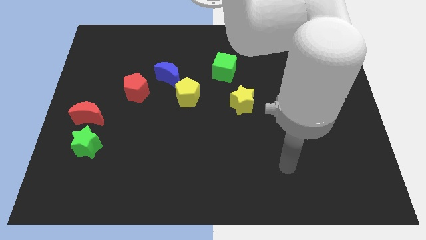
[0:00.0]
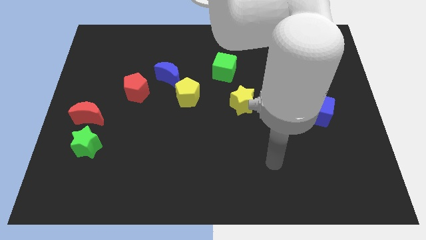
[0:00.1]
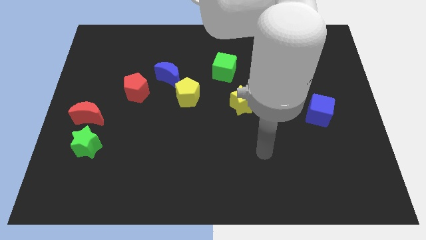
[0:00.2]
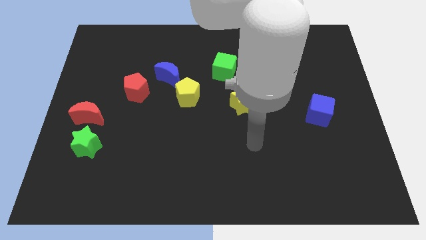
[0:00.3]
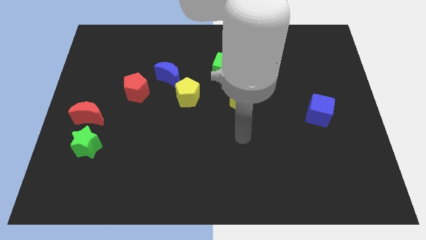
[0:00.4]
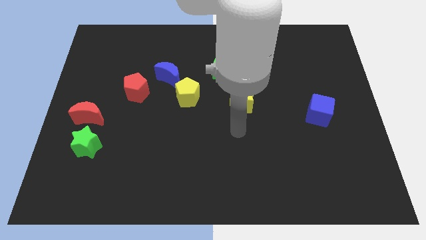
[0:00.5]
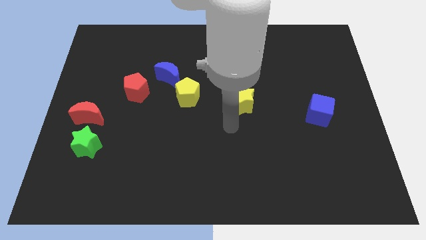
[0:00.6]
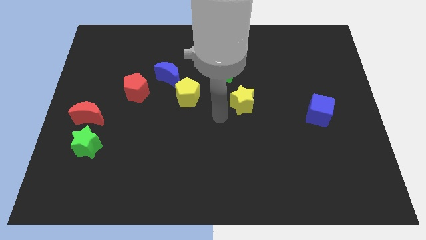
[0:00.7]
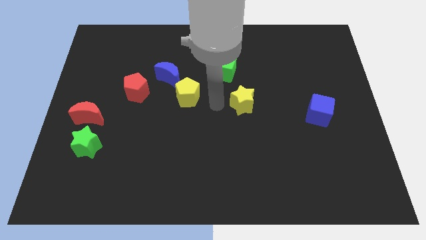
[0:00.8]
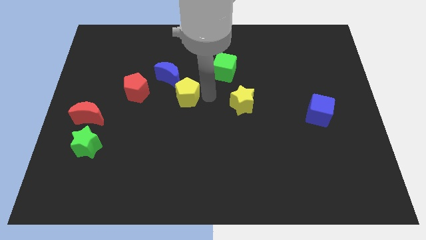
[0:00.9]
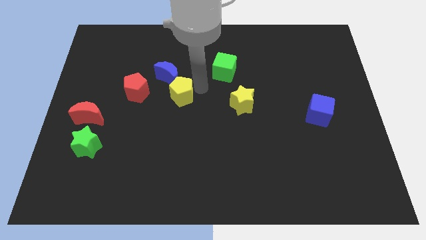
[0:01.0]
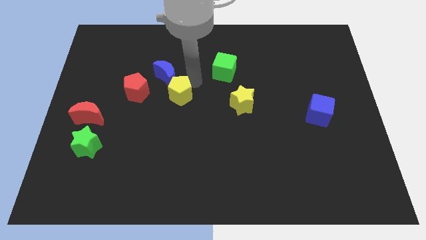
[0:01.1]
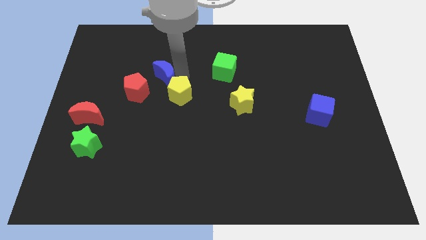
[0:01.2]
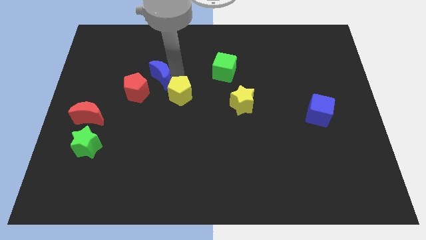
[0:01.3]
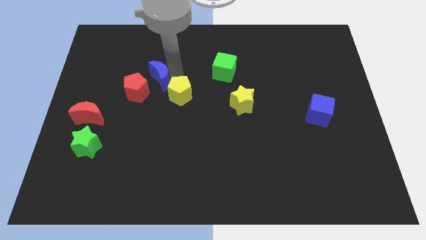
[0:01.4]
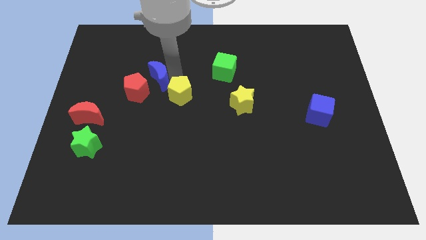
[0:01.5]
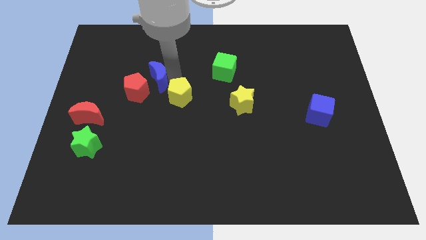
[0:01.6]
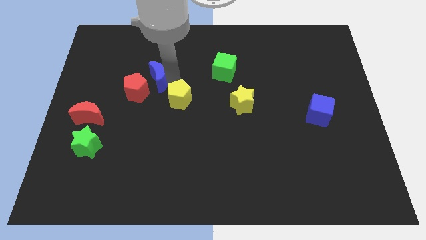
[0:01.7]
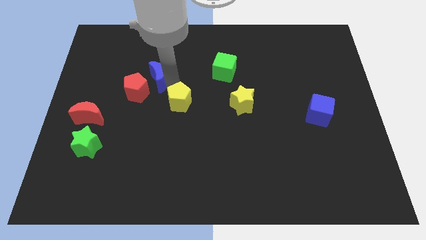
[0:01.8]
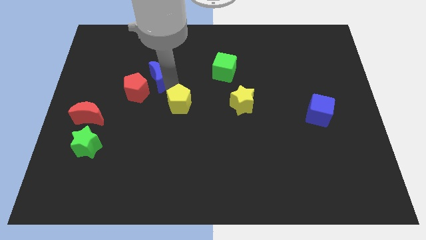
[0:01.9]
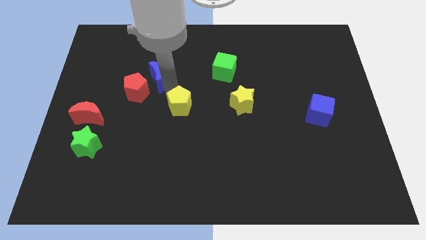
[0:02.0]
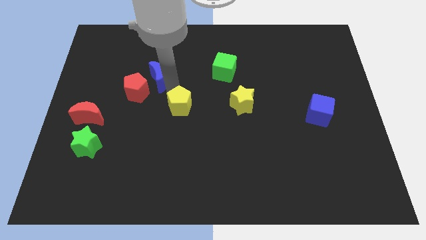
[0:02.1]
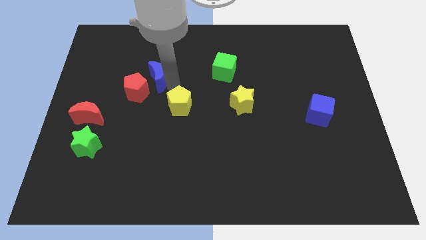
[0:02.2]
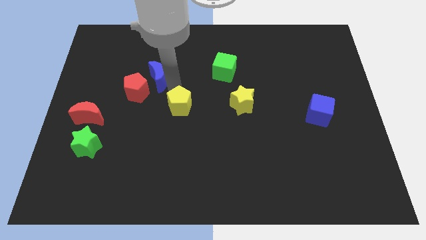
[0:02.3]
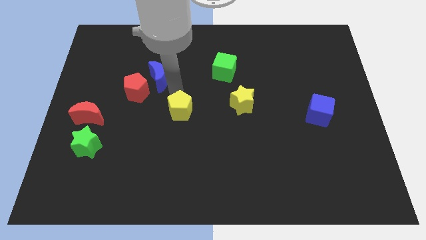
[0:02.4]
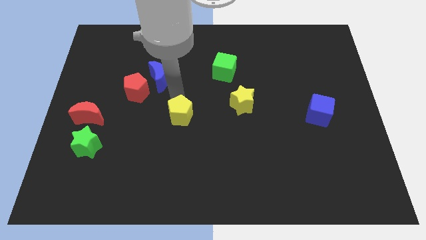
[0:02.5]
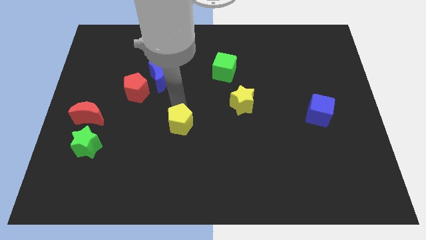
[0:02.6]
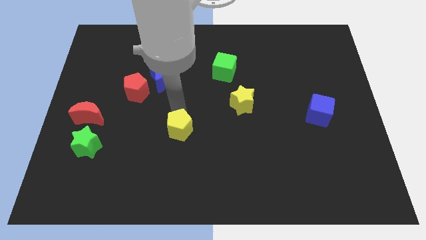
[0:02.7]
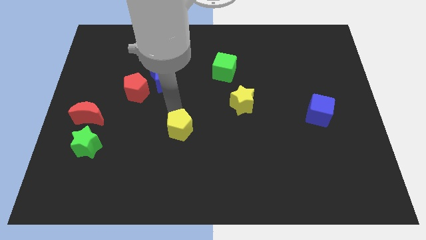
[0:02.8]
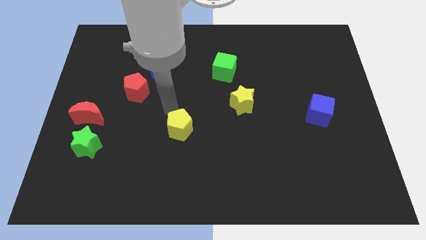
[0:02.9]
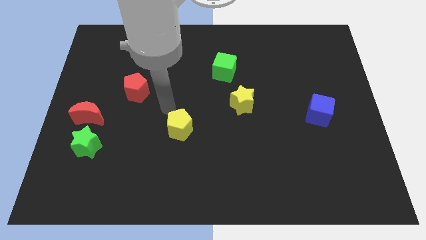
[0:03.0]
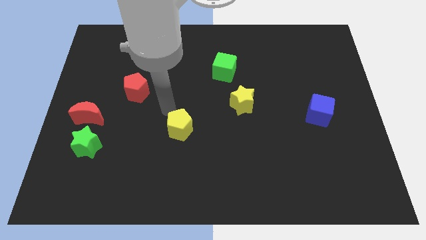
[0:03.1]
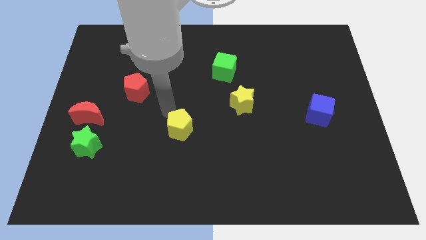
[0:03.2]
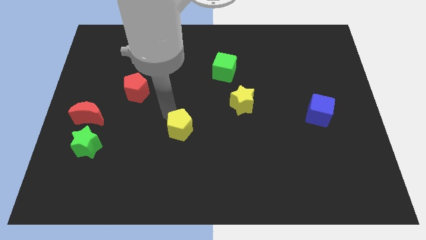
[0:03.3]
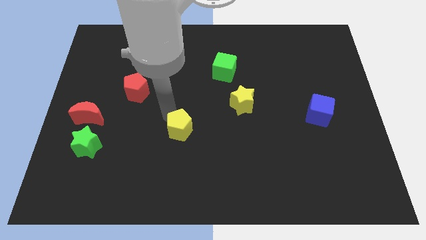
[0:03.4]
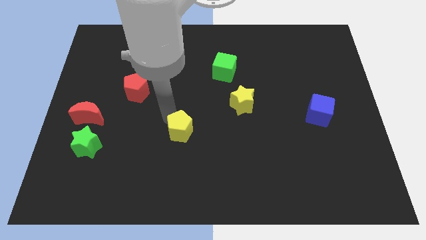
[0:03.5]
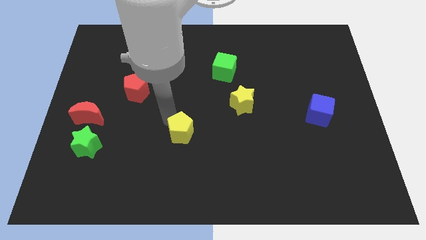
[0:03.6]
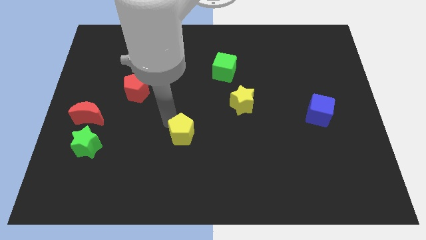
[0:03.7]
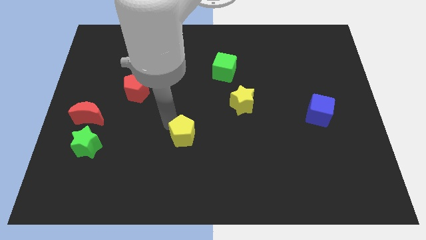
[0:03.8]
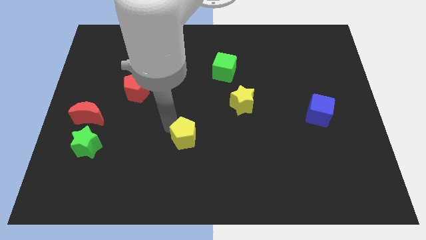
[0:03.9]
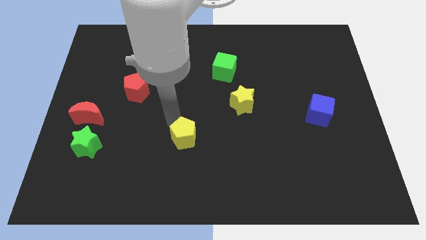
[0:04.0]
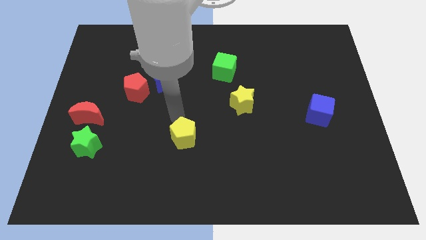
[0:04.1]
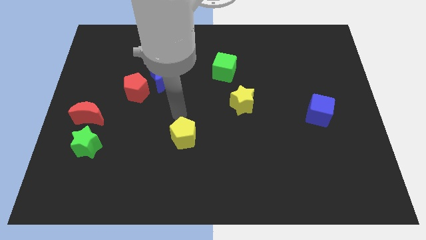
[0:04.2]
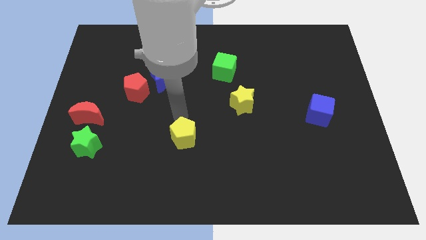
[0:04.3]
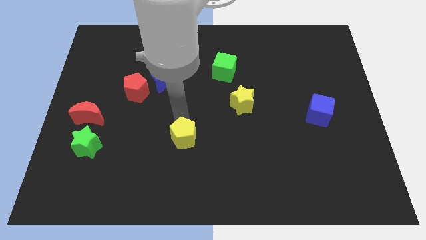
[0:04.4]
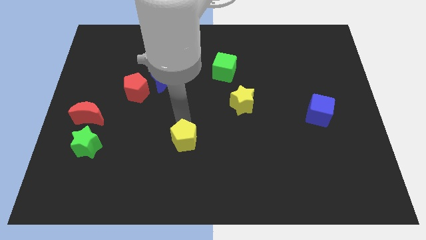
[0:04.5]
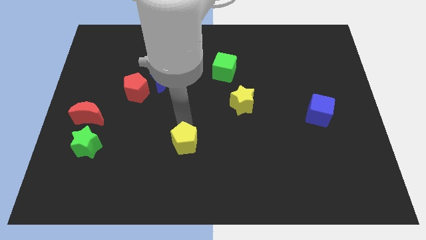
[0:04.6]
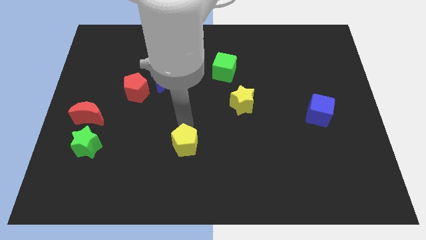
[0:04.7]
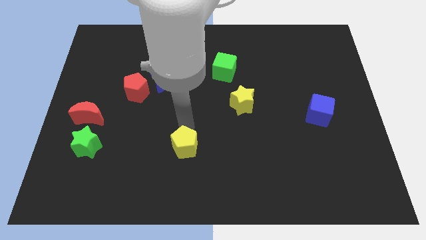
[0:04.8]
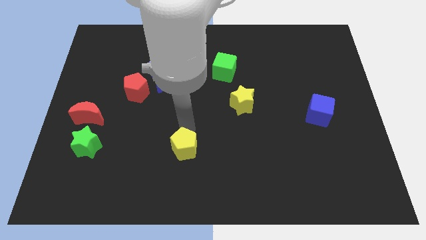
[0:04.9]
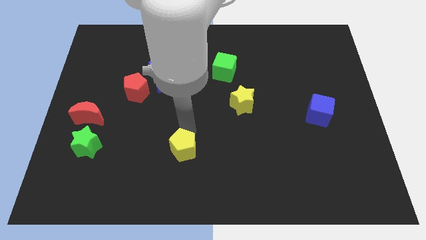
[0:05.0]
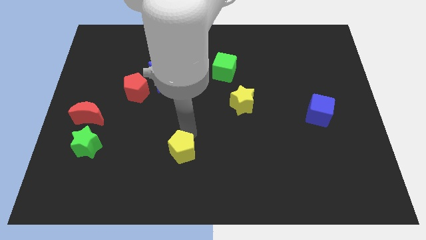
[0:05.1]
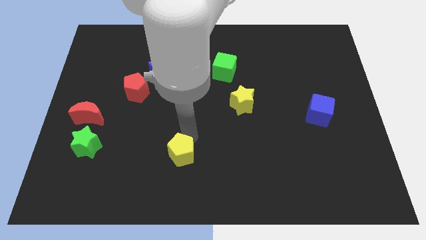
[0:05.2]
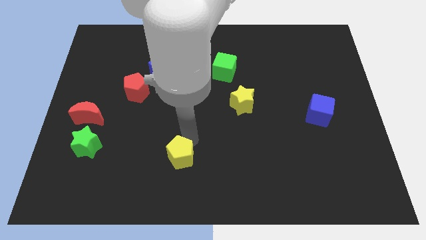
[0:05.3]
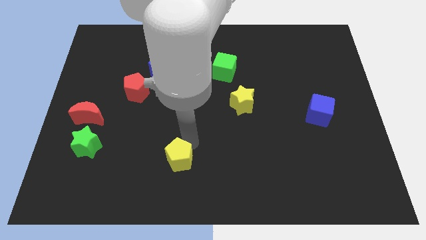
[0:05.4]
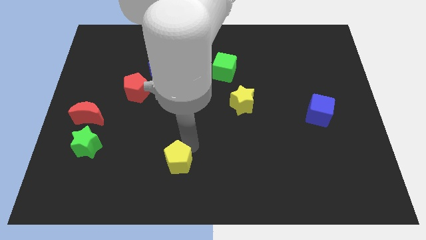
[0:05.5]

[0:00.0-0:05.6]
move the yellow pentagon to the bottom
